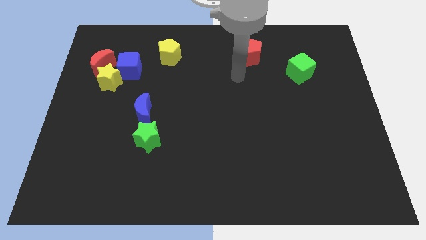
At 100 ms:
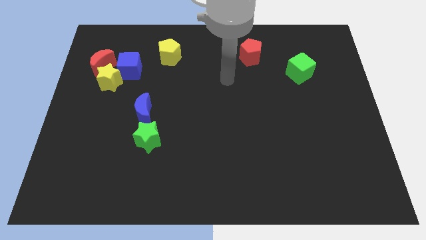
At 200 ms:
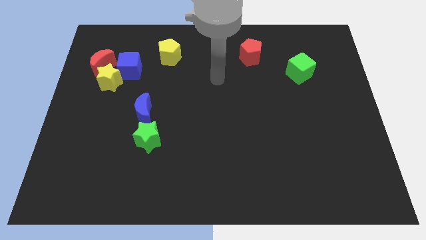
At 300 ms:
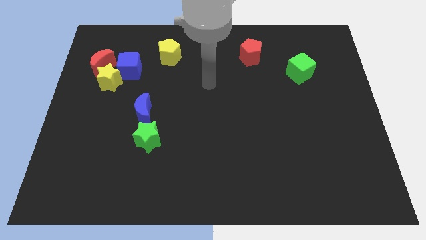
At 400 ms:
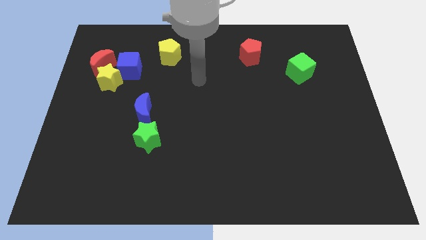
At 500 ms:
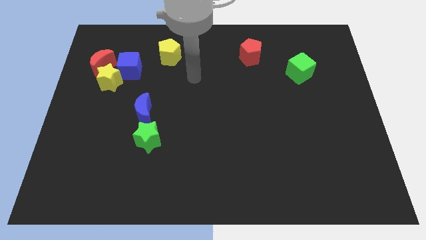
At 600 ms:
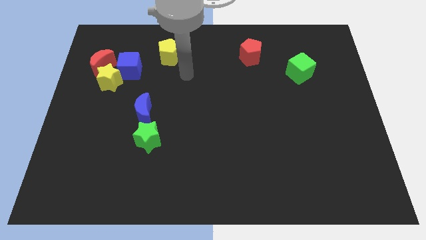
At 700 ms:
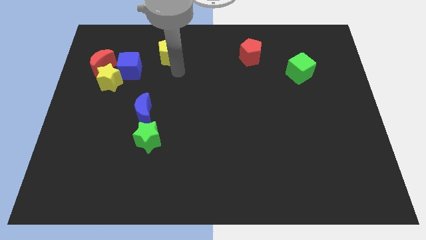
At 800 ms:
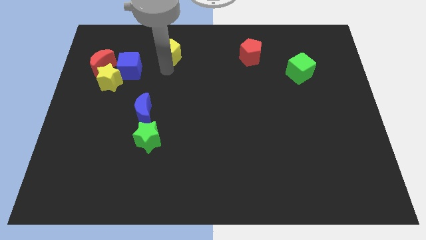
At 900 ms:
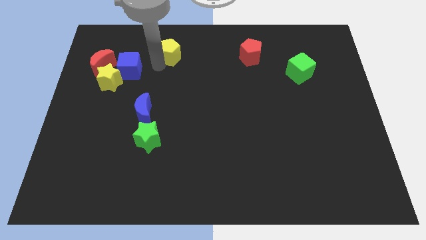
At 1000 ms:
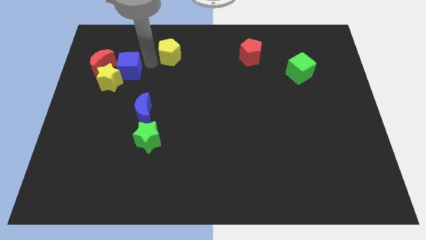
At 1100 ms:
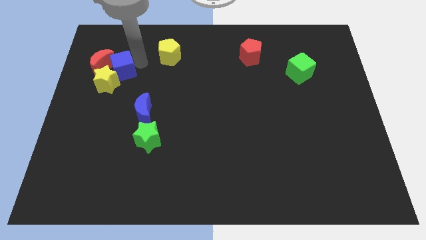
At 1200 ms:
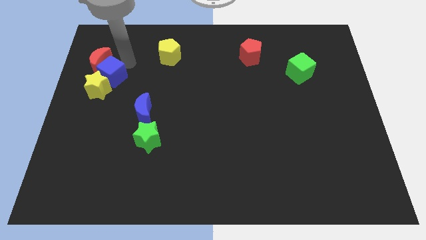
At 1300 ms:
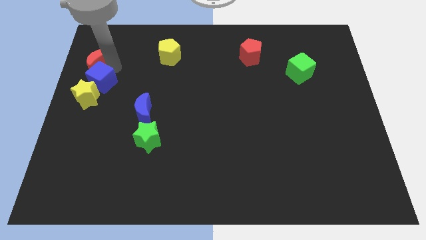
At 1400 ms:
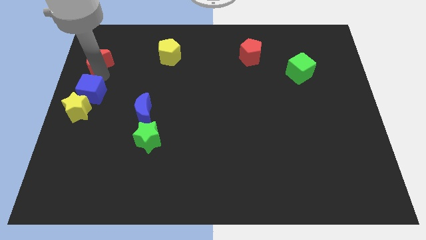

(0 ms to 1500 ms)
pull the yellow star apart from the blue cube and red moon

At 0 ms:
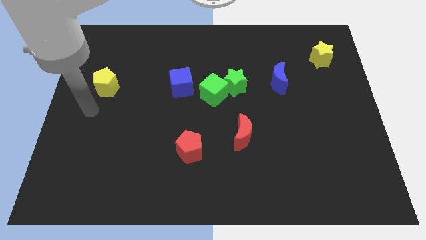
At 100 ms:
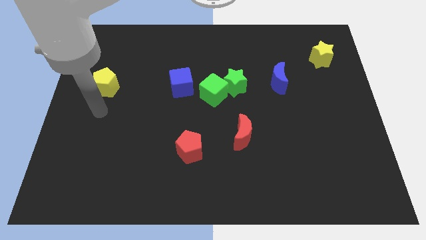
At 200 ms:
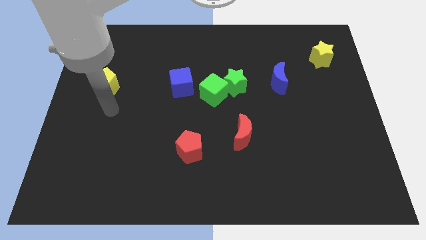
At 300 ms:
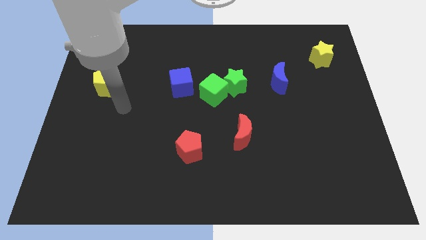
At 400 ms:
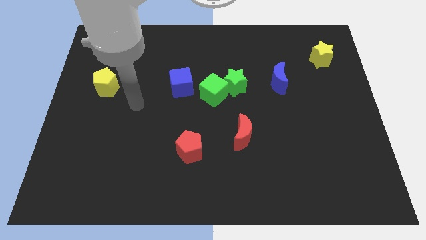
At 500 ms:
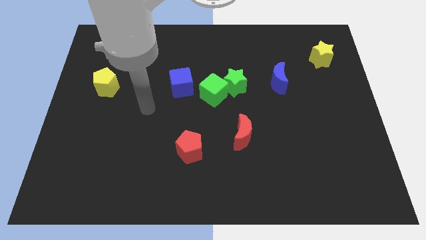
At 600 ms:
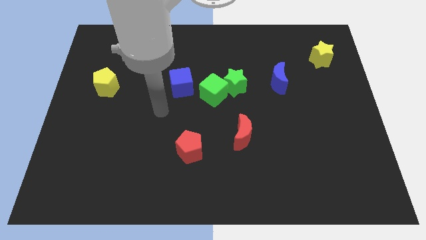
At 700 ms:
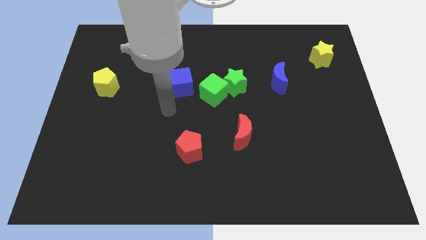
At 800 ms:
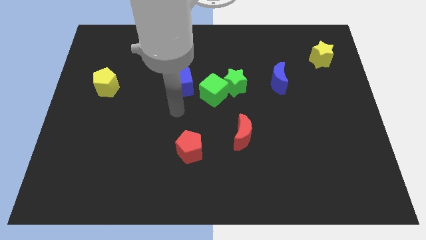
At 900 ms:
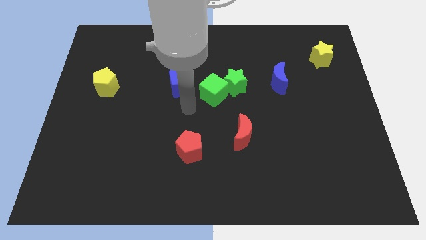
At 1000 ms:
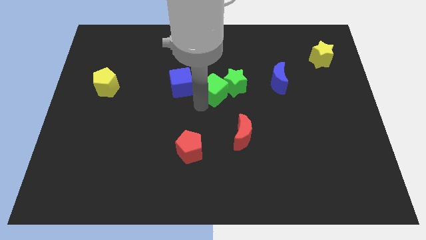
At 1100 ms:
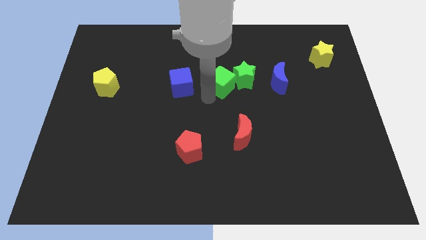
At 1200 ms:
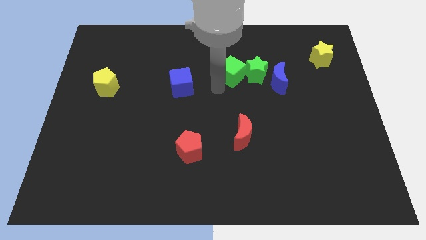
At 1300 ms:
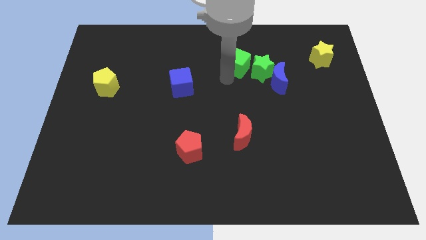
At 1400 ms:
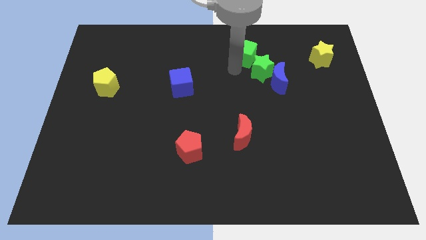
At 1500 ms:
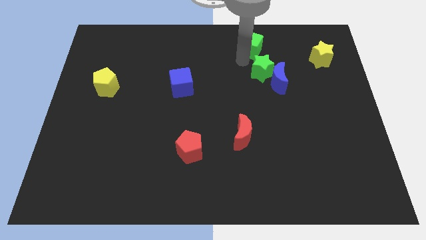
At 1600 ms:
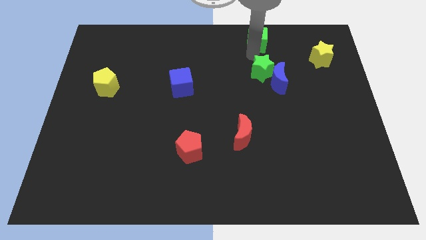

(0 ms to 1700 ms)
separate the green star from the green cube

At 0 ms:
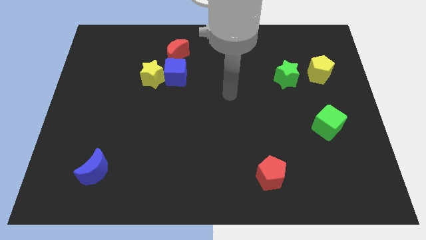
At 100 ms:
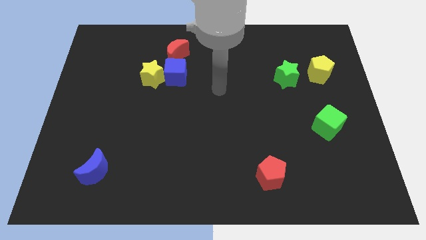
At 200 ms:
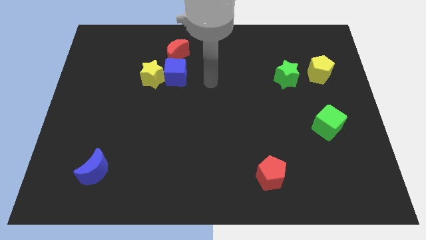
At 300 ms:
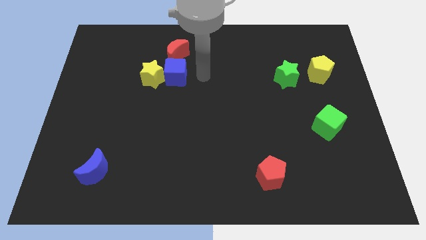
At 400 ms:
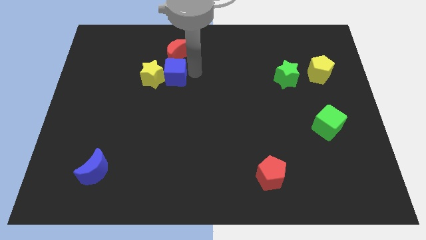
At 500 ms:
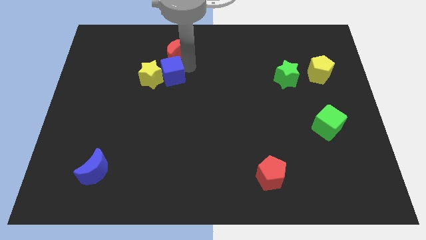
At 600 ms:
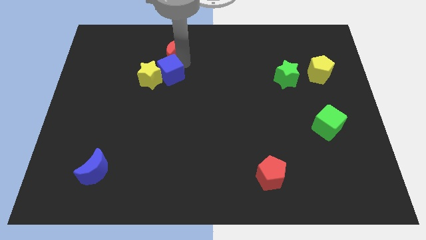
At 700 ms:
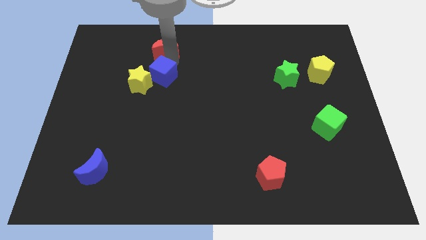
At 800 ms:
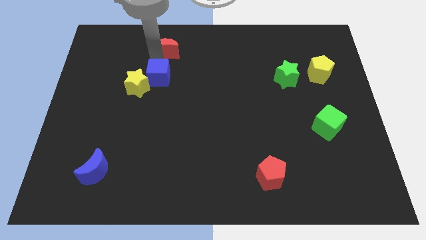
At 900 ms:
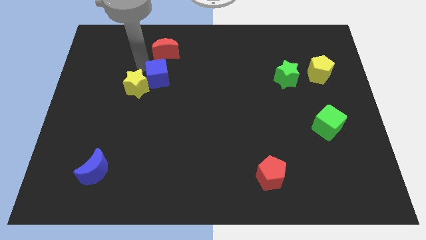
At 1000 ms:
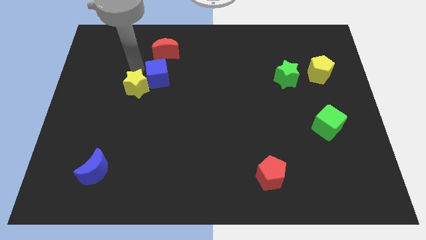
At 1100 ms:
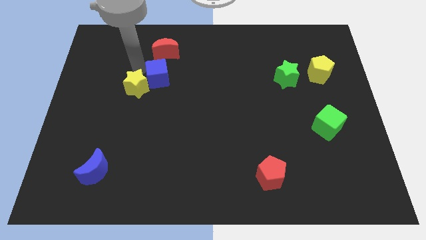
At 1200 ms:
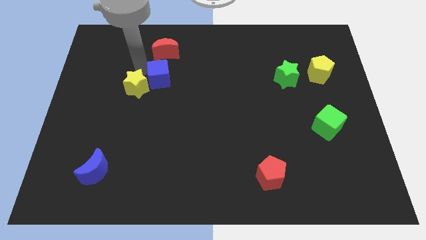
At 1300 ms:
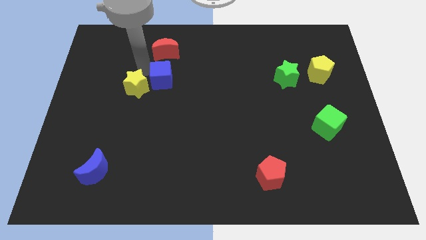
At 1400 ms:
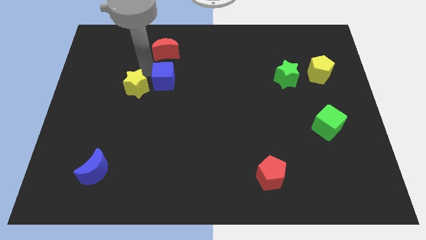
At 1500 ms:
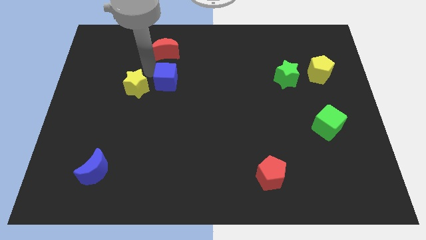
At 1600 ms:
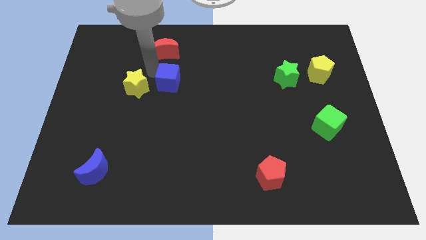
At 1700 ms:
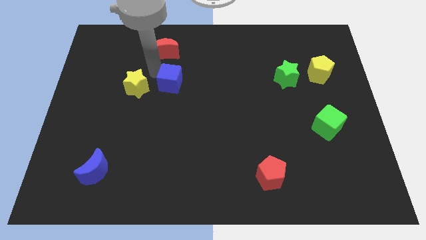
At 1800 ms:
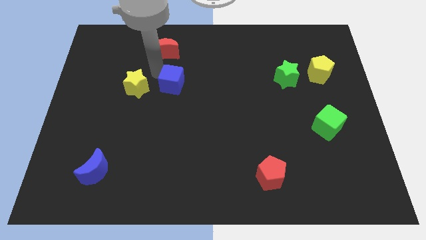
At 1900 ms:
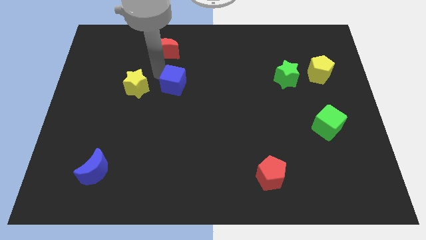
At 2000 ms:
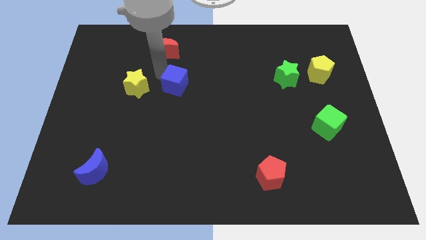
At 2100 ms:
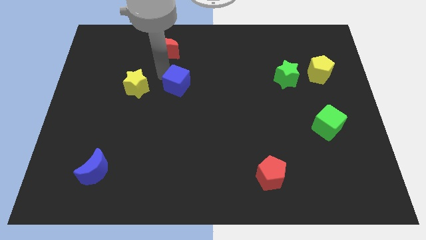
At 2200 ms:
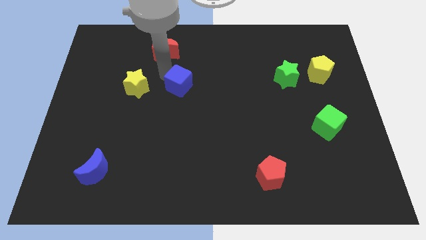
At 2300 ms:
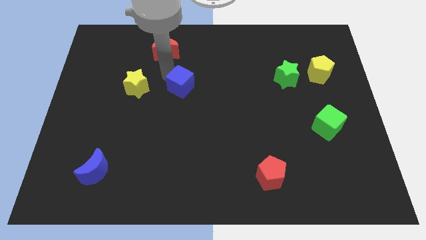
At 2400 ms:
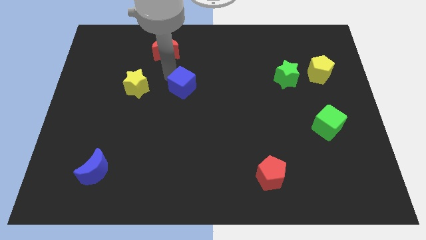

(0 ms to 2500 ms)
separate the blue cube from the yellow star and red moon

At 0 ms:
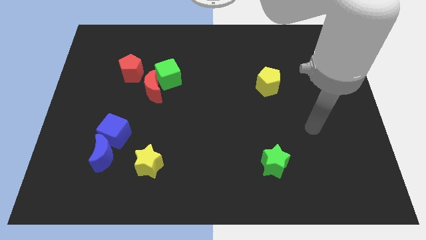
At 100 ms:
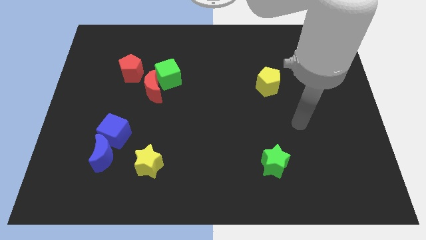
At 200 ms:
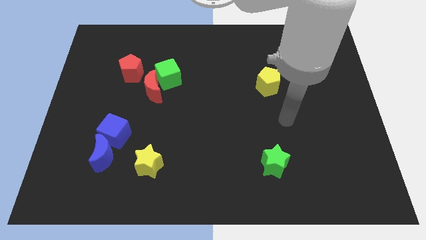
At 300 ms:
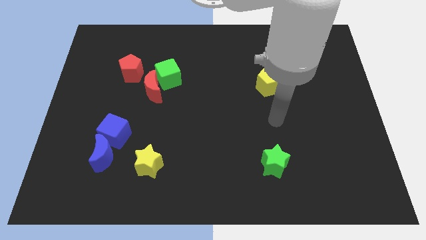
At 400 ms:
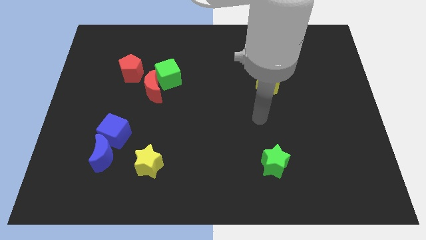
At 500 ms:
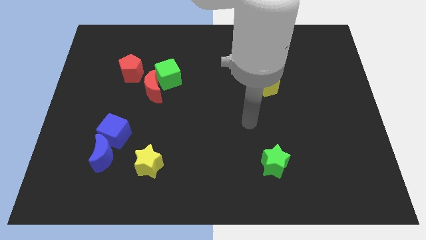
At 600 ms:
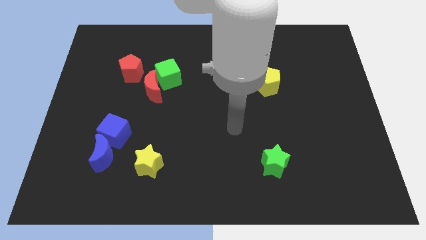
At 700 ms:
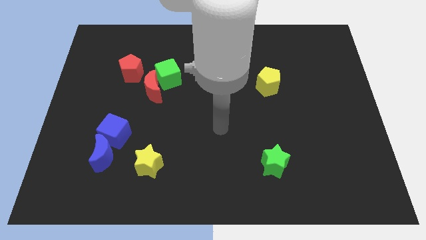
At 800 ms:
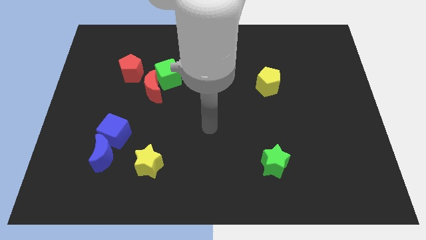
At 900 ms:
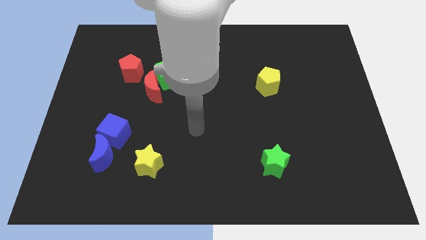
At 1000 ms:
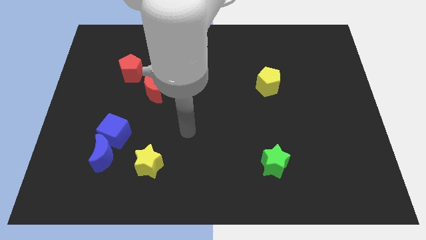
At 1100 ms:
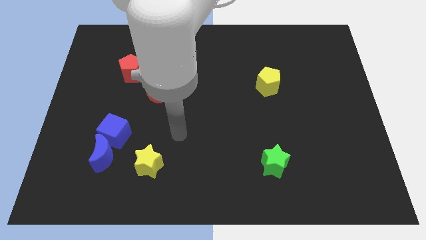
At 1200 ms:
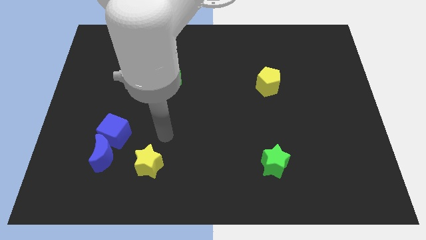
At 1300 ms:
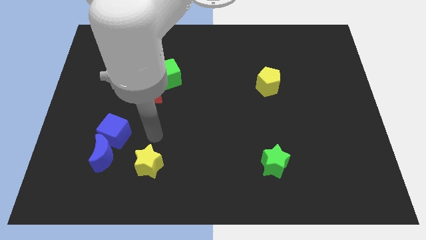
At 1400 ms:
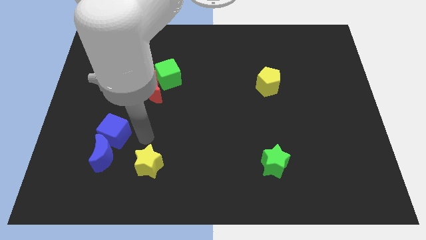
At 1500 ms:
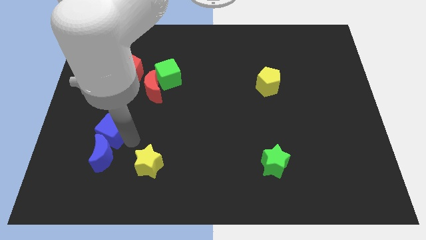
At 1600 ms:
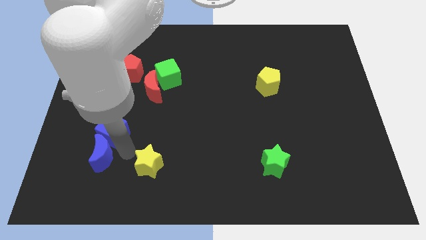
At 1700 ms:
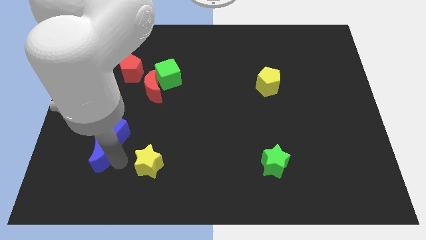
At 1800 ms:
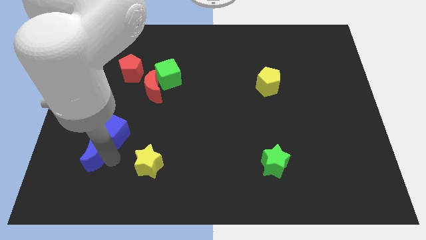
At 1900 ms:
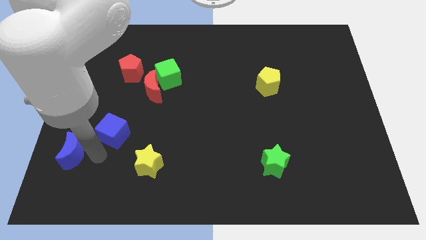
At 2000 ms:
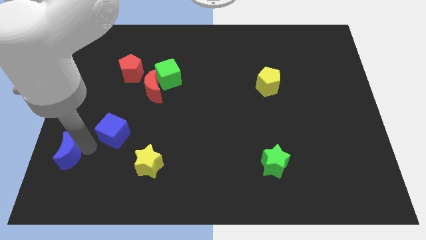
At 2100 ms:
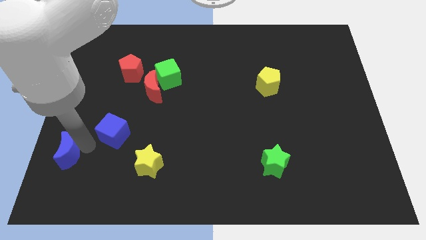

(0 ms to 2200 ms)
move the blue cube away from the blue moon

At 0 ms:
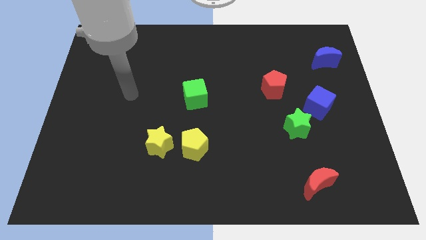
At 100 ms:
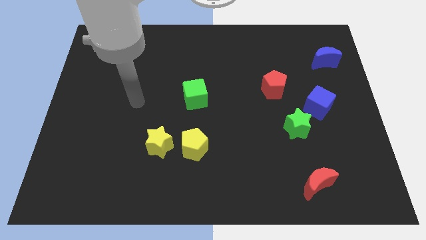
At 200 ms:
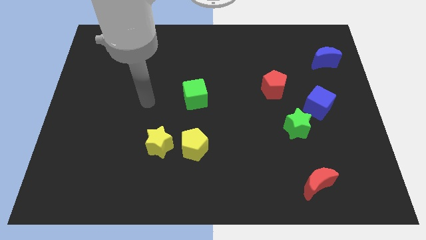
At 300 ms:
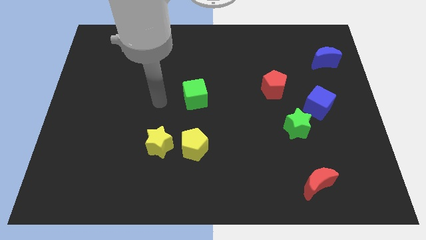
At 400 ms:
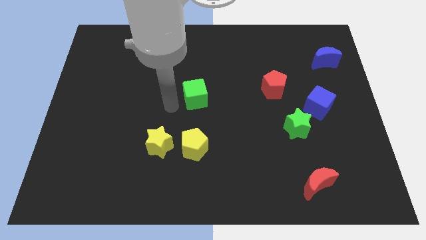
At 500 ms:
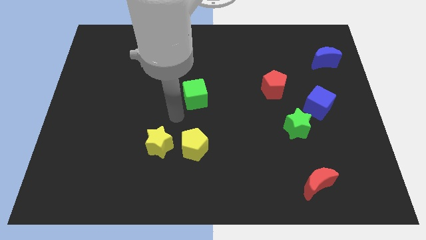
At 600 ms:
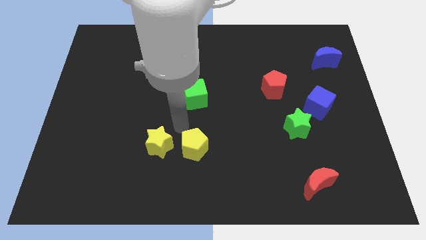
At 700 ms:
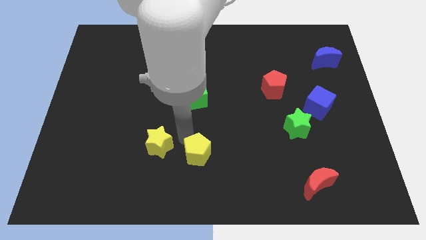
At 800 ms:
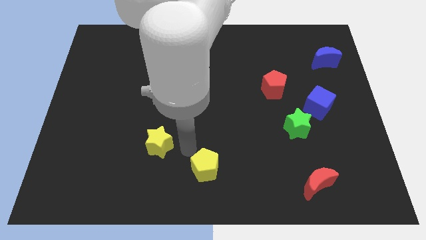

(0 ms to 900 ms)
pull the yellow star apart from the yellow pentagon

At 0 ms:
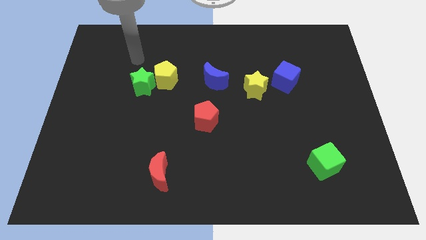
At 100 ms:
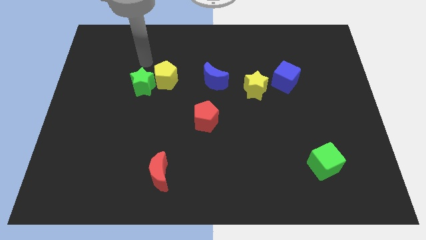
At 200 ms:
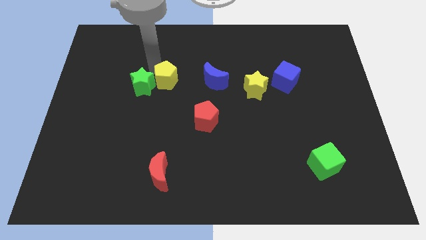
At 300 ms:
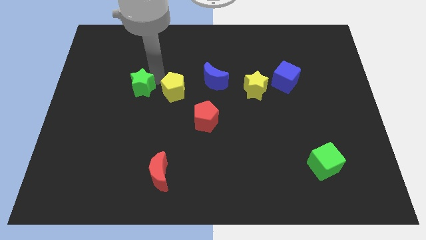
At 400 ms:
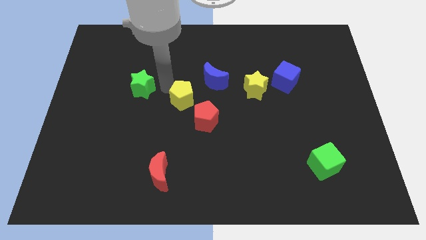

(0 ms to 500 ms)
move the green star away from the yellow pentagon
